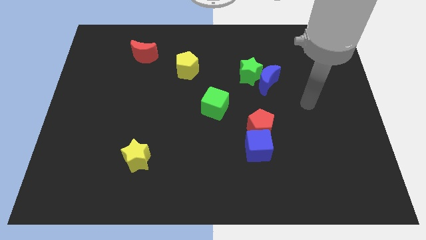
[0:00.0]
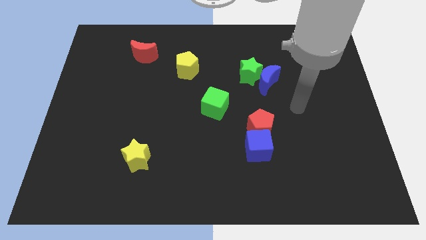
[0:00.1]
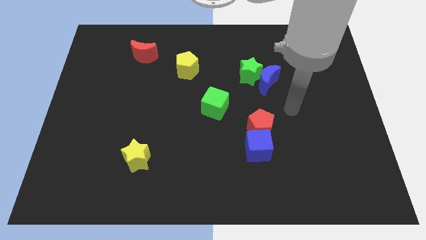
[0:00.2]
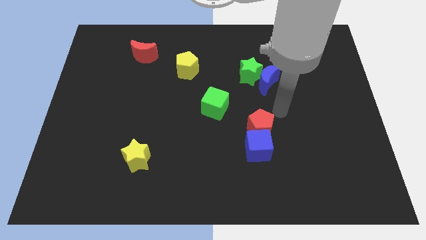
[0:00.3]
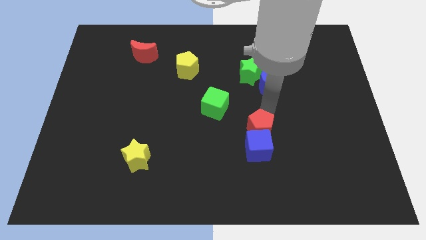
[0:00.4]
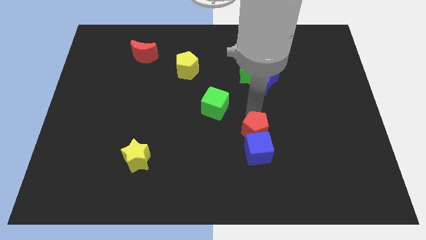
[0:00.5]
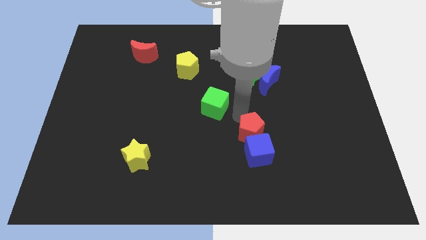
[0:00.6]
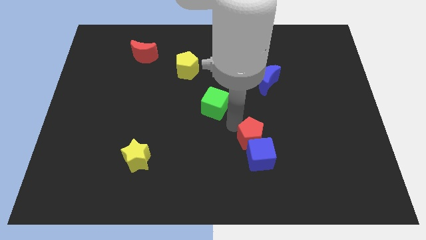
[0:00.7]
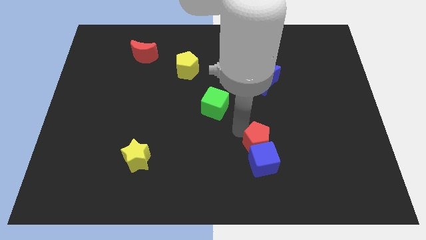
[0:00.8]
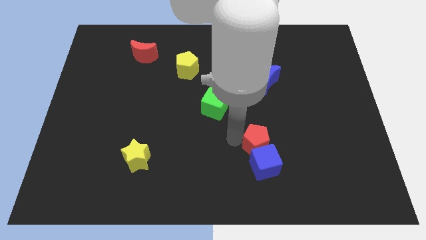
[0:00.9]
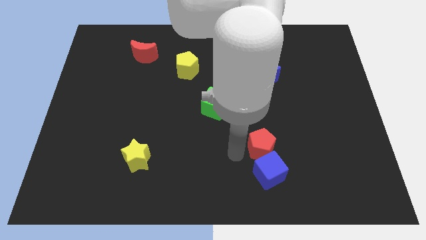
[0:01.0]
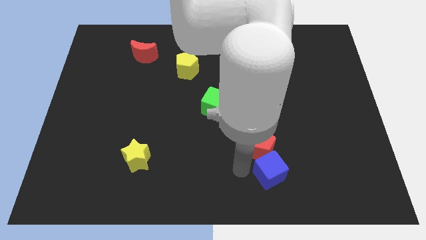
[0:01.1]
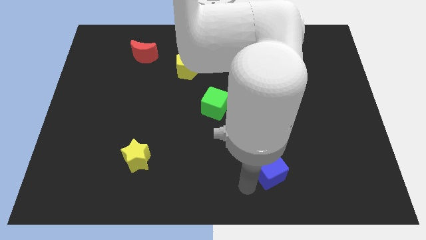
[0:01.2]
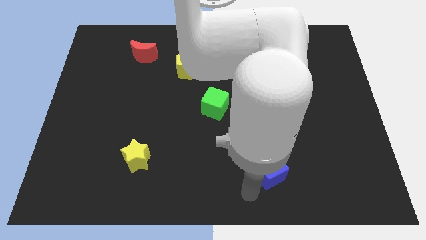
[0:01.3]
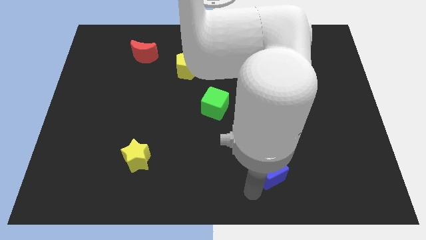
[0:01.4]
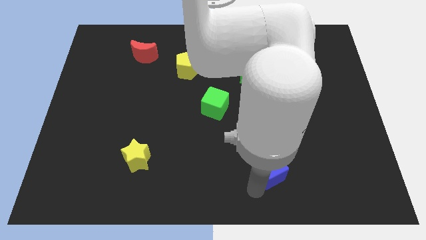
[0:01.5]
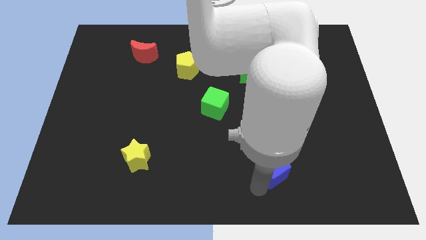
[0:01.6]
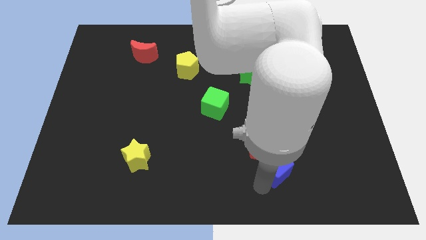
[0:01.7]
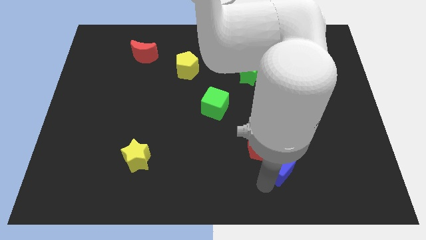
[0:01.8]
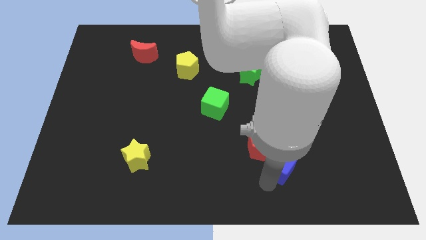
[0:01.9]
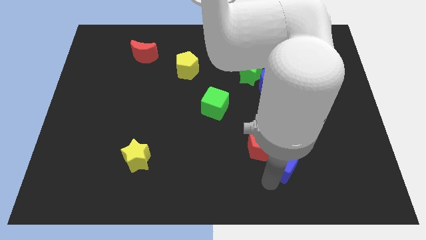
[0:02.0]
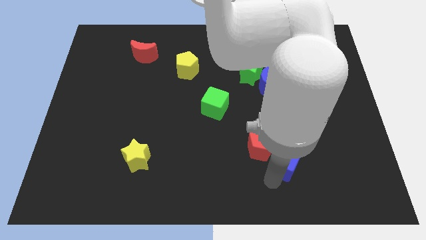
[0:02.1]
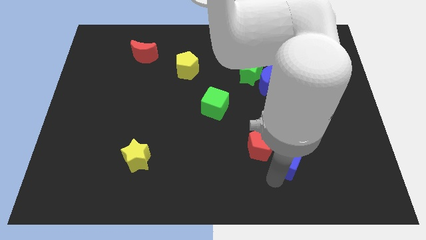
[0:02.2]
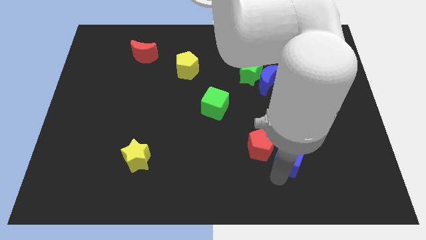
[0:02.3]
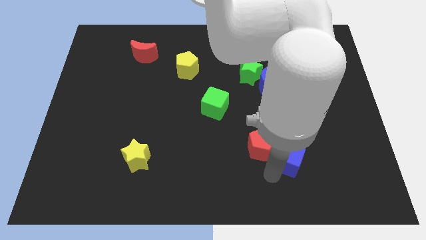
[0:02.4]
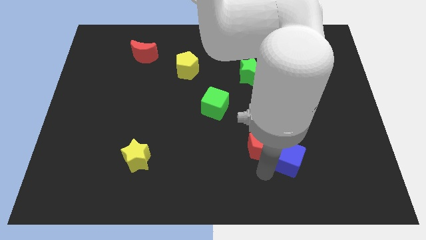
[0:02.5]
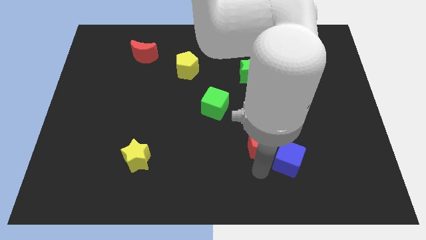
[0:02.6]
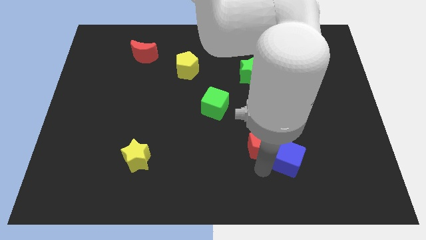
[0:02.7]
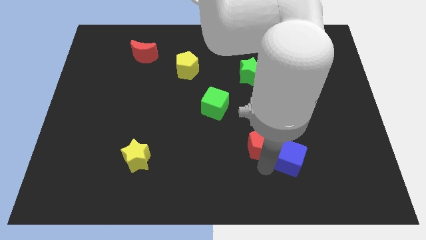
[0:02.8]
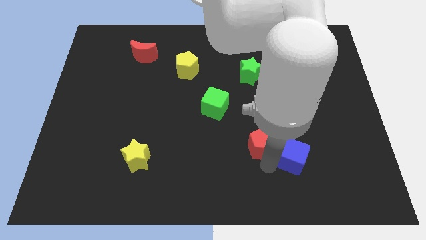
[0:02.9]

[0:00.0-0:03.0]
slide the blue cube right a little bit

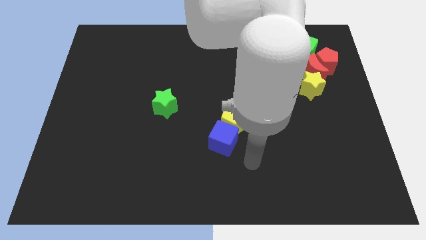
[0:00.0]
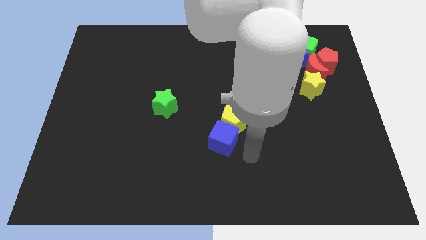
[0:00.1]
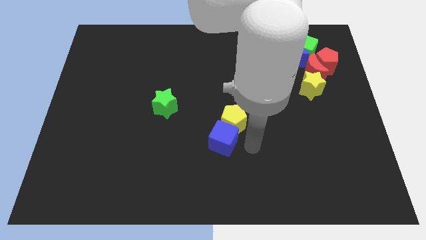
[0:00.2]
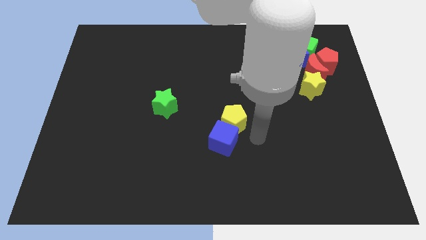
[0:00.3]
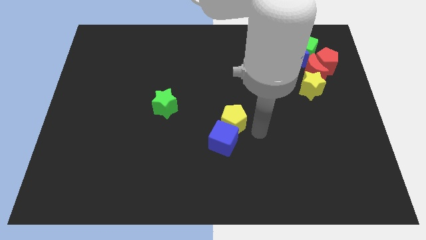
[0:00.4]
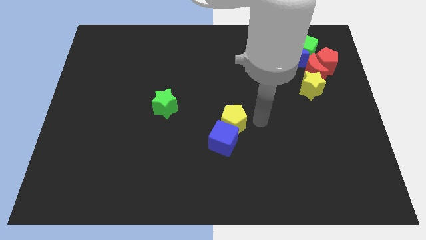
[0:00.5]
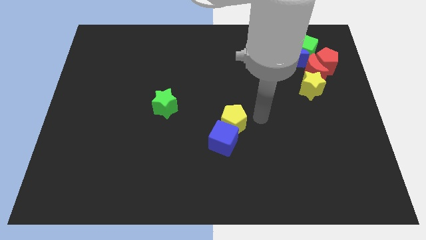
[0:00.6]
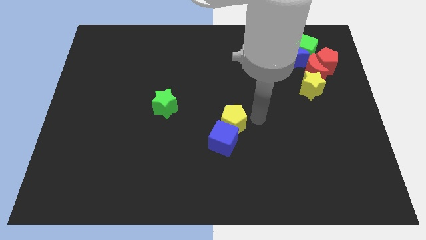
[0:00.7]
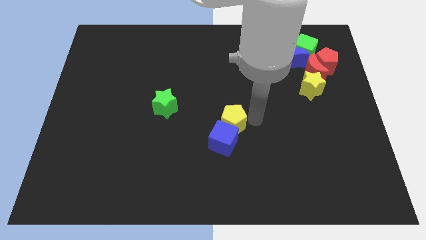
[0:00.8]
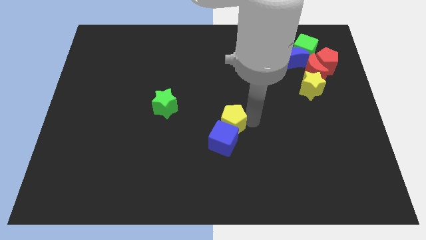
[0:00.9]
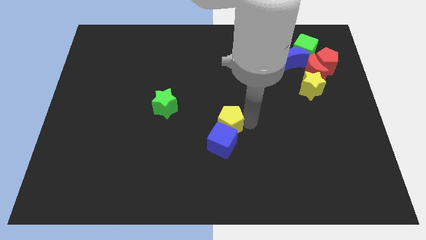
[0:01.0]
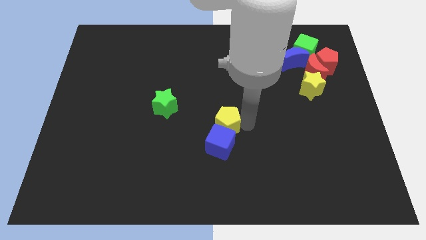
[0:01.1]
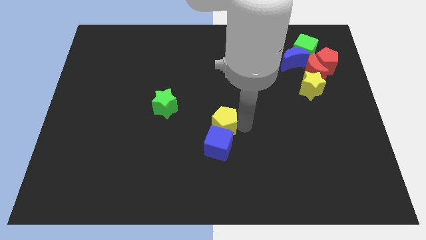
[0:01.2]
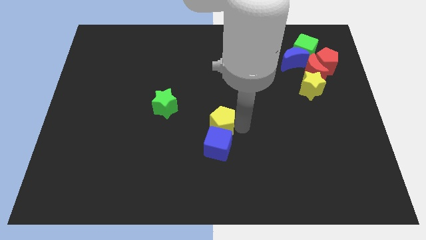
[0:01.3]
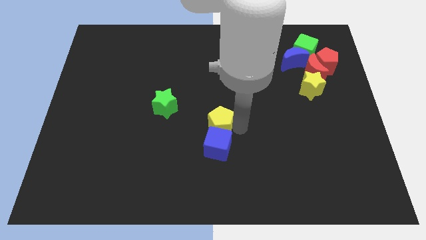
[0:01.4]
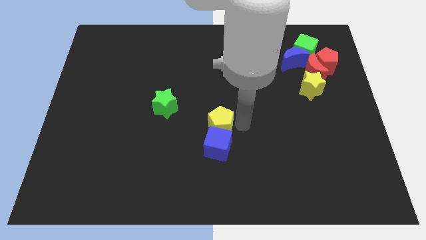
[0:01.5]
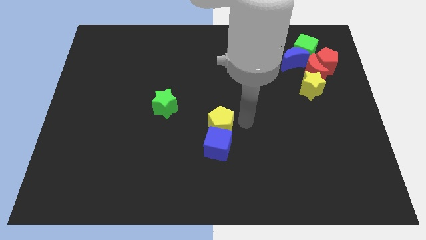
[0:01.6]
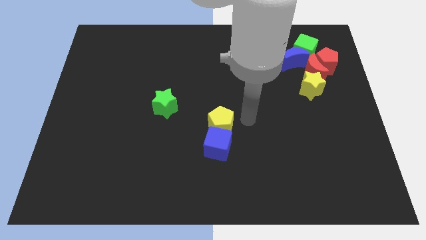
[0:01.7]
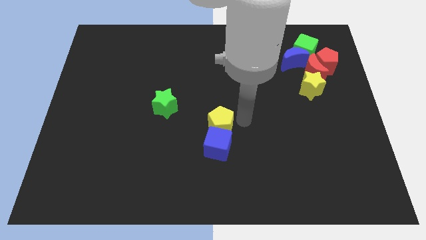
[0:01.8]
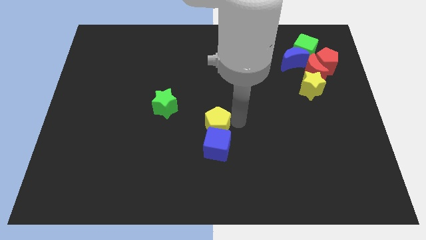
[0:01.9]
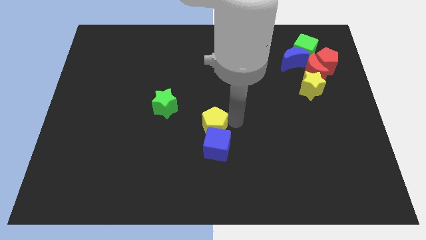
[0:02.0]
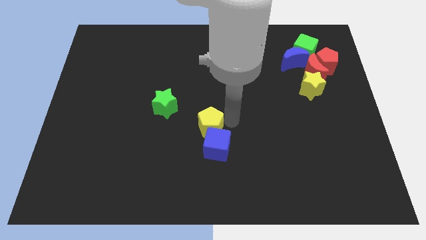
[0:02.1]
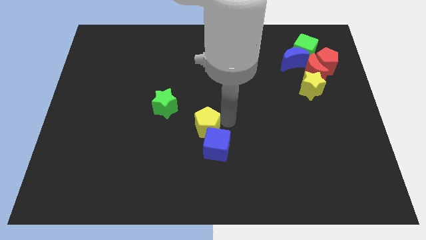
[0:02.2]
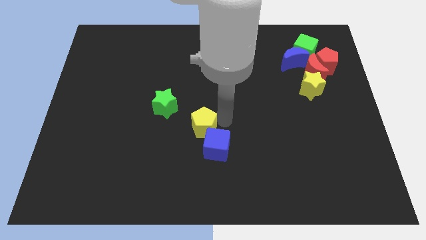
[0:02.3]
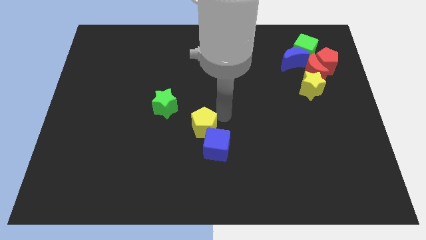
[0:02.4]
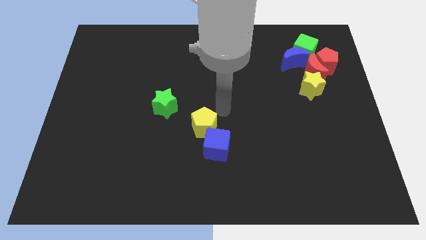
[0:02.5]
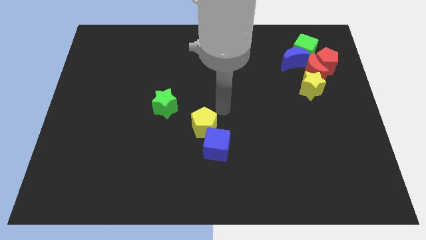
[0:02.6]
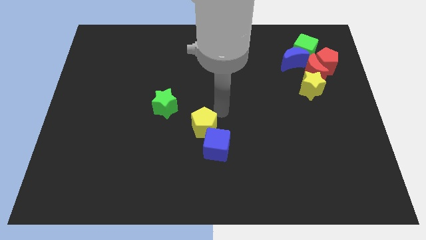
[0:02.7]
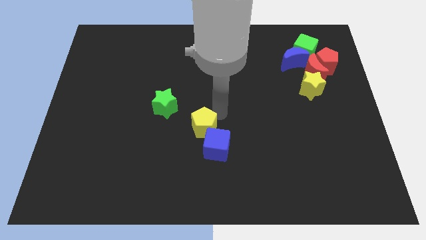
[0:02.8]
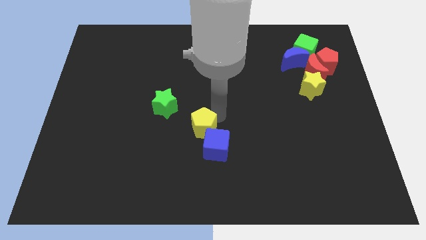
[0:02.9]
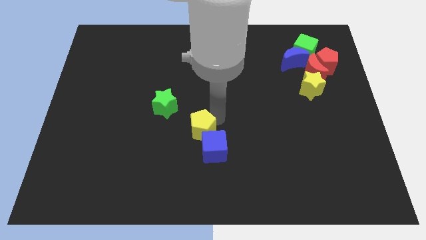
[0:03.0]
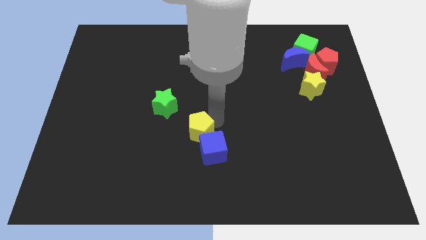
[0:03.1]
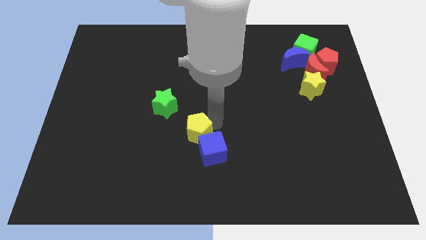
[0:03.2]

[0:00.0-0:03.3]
push the yellow pentagon diagonally down and to the left a little

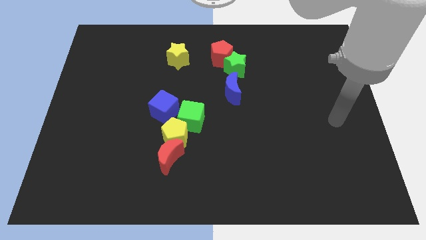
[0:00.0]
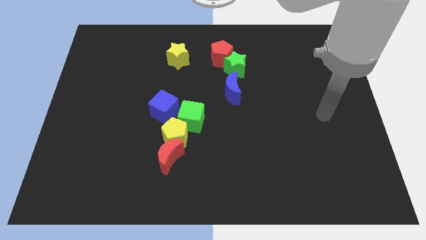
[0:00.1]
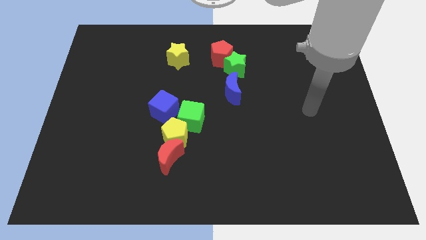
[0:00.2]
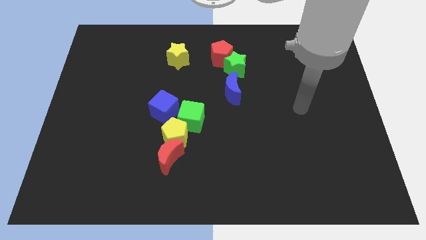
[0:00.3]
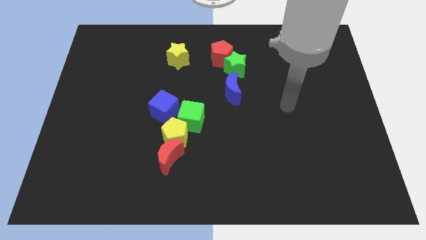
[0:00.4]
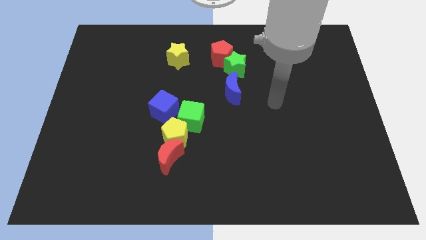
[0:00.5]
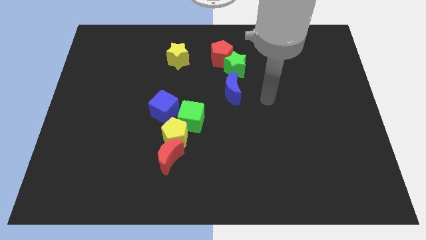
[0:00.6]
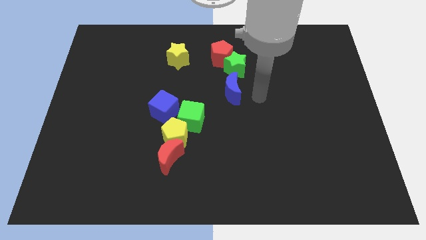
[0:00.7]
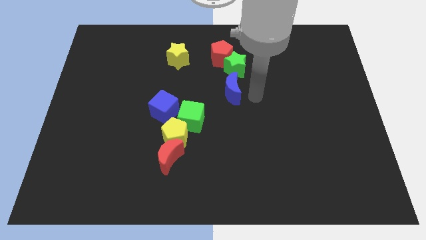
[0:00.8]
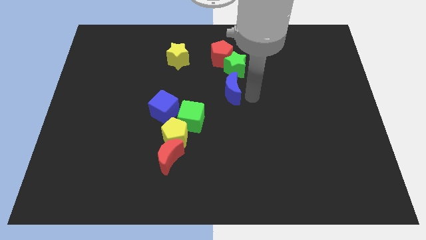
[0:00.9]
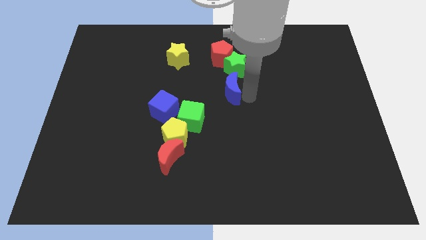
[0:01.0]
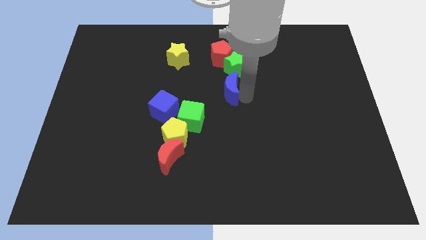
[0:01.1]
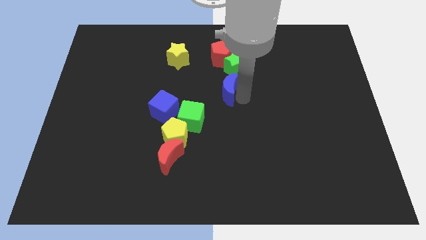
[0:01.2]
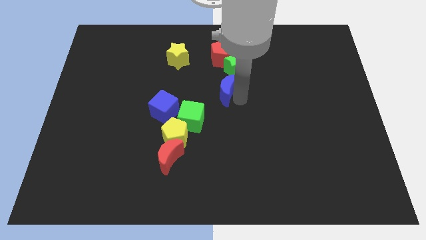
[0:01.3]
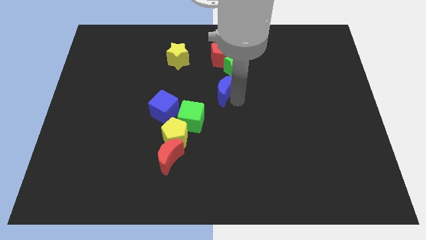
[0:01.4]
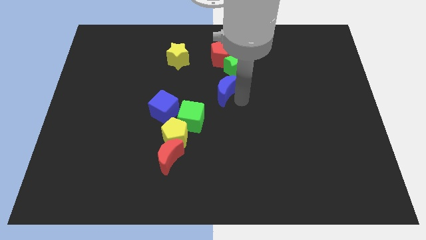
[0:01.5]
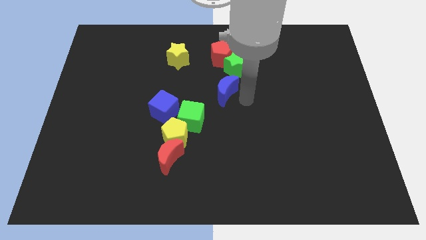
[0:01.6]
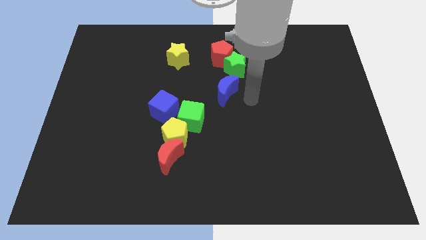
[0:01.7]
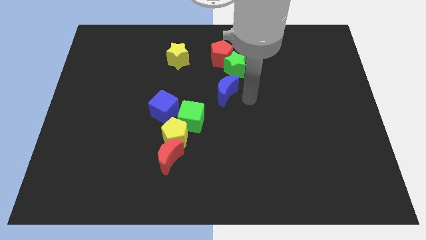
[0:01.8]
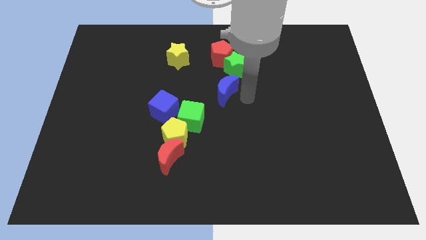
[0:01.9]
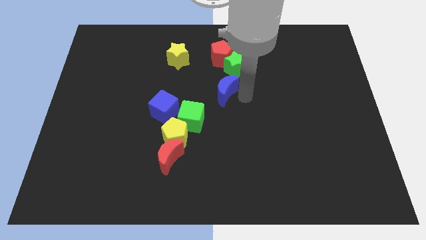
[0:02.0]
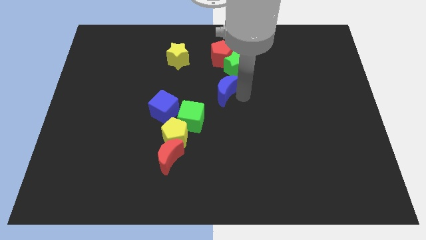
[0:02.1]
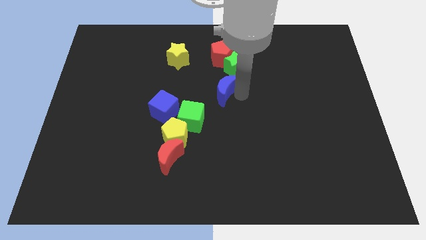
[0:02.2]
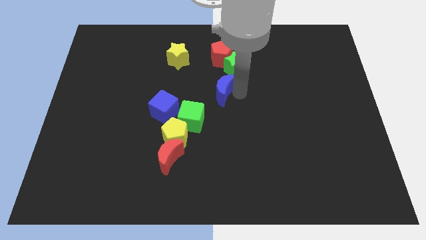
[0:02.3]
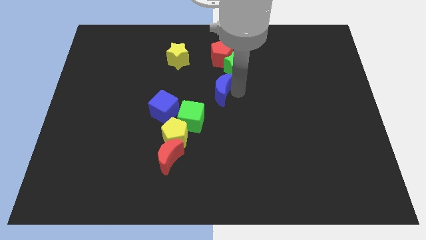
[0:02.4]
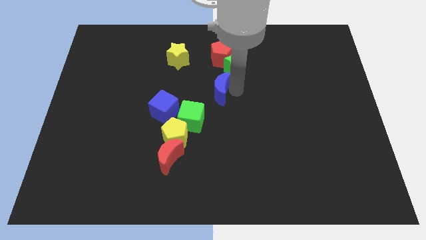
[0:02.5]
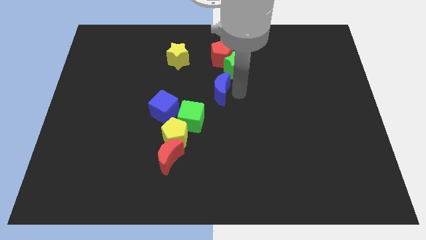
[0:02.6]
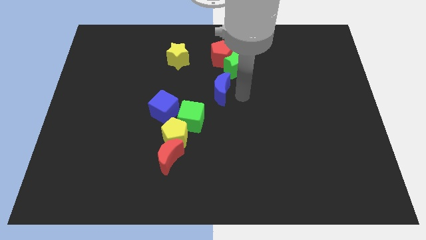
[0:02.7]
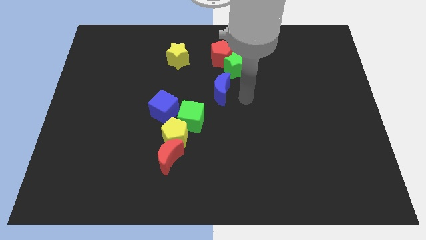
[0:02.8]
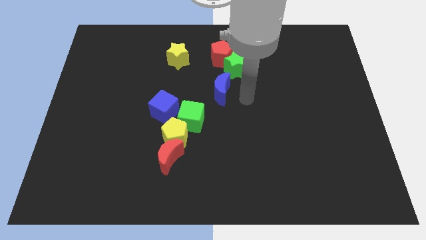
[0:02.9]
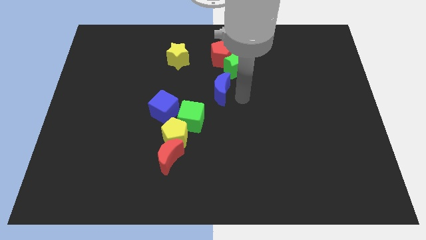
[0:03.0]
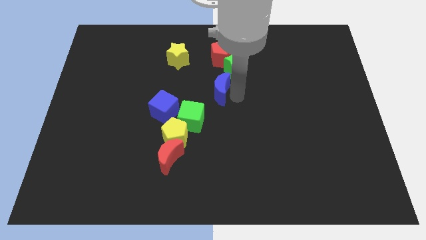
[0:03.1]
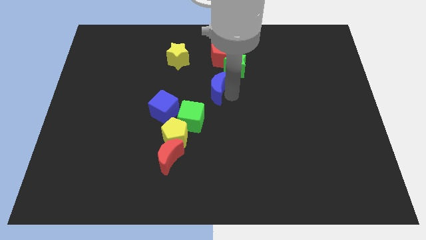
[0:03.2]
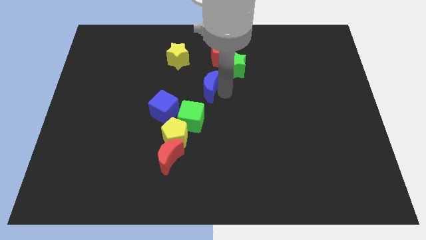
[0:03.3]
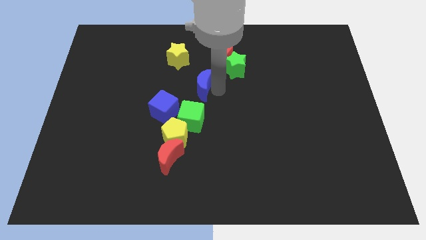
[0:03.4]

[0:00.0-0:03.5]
move the blue moon slightly to the left
